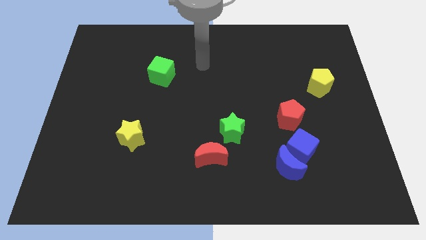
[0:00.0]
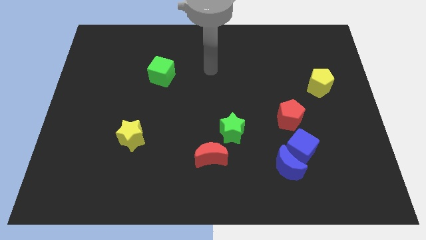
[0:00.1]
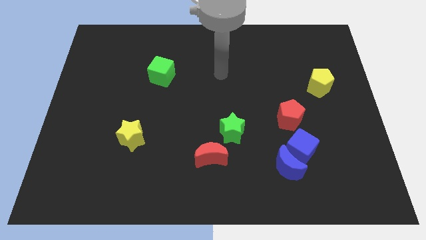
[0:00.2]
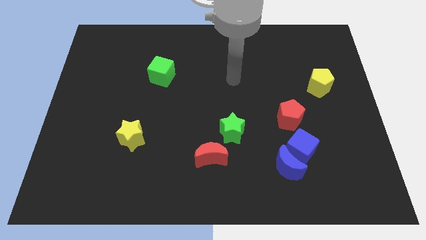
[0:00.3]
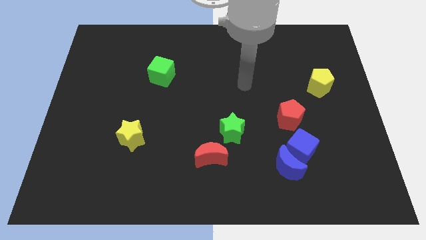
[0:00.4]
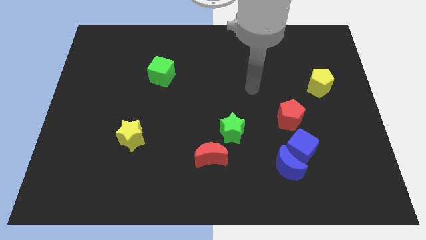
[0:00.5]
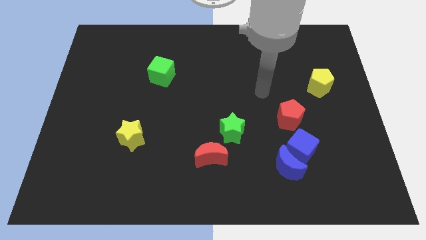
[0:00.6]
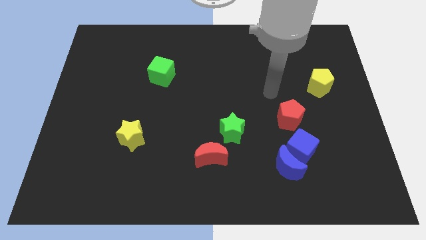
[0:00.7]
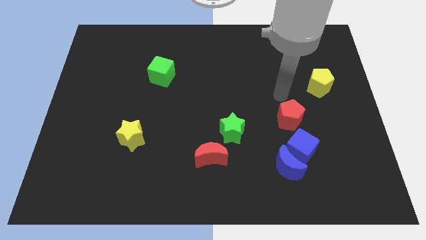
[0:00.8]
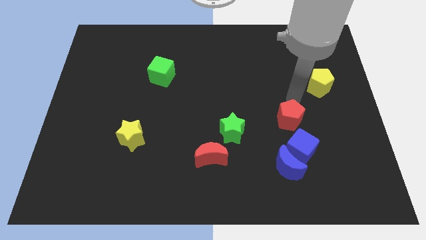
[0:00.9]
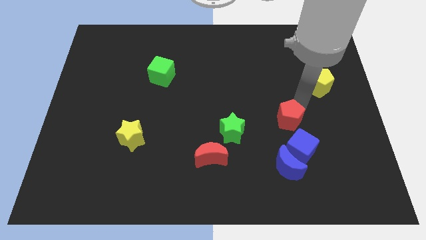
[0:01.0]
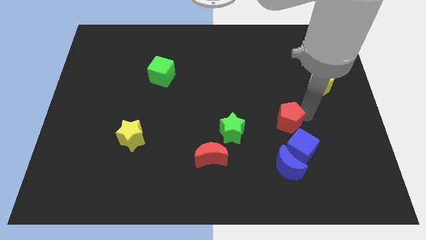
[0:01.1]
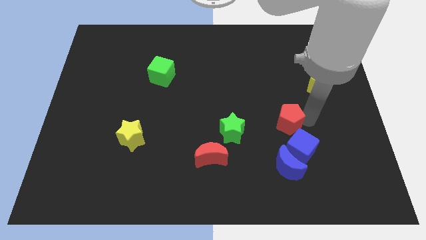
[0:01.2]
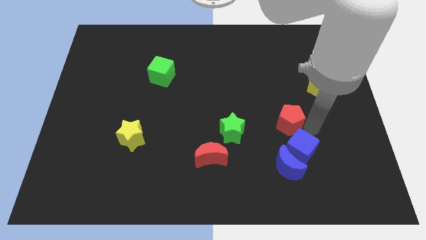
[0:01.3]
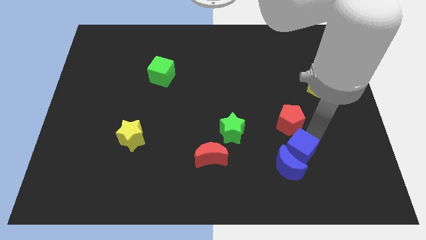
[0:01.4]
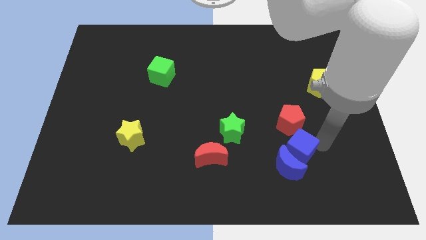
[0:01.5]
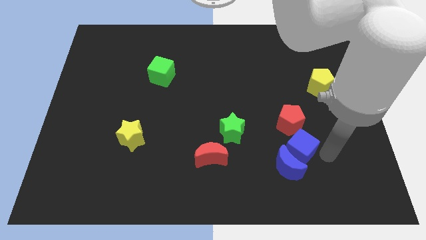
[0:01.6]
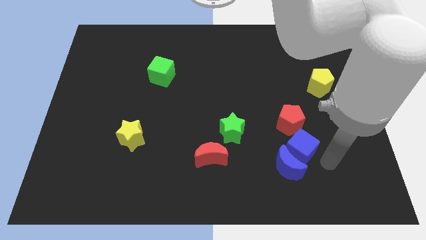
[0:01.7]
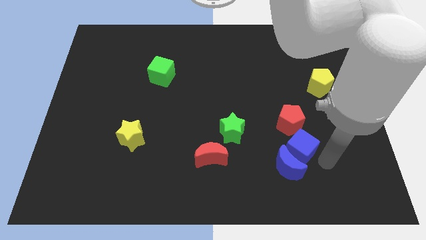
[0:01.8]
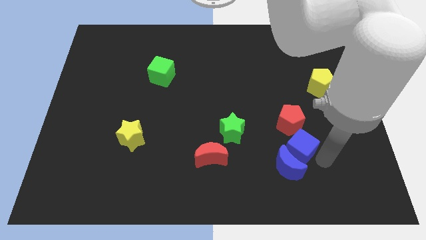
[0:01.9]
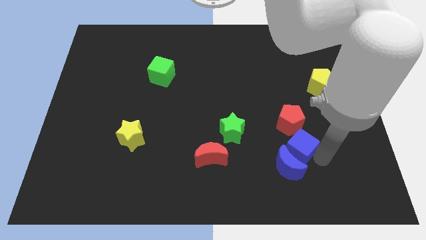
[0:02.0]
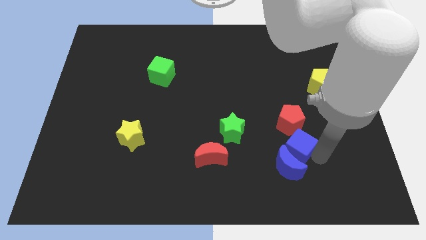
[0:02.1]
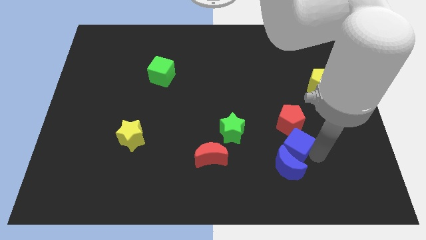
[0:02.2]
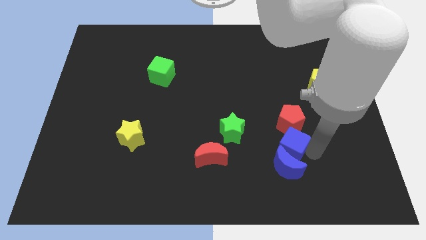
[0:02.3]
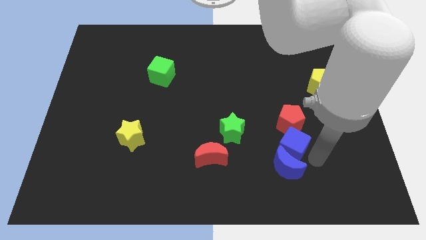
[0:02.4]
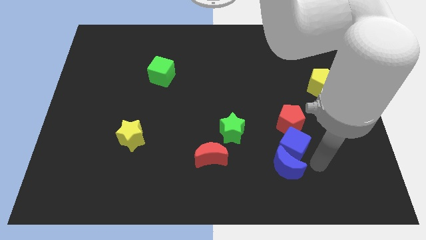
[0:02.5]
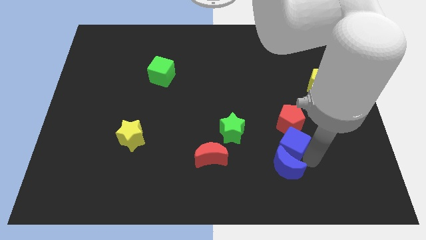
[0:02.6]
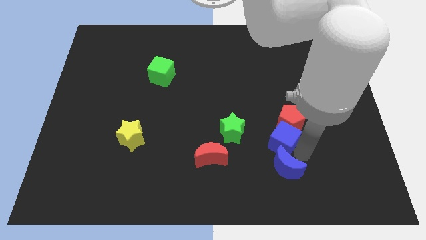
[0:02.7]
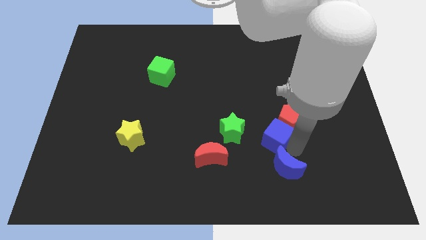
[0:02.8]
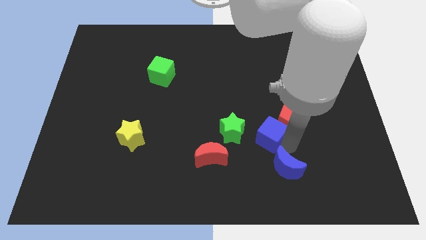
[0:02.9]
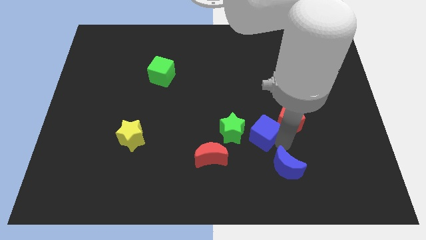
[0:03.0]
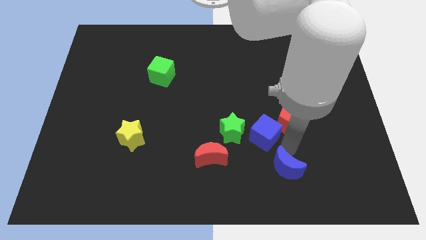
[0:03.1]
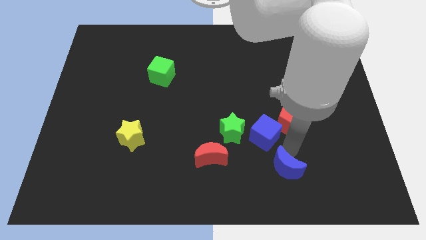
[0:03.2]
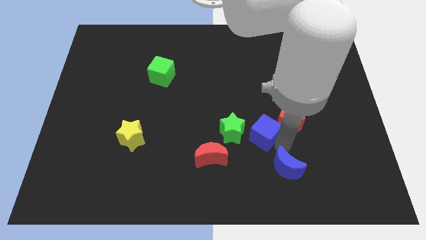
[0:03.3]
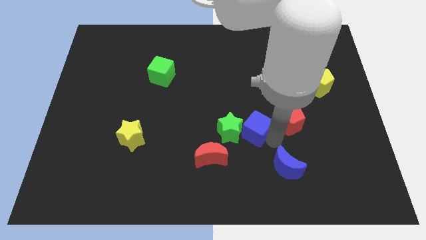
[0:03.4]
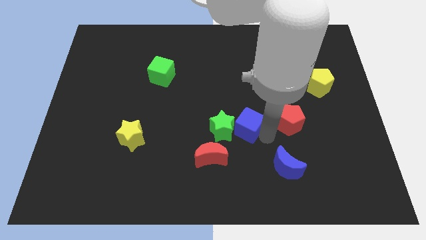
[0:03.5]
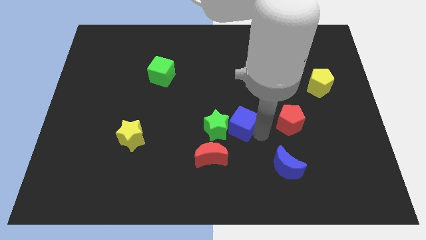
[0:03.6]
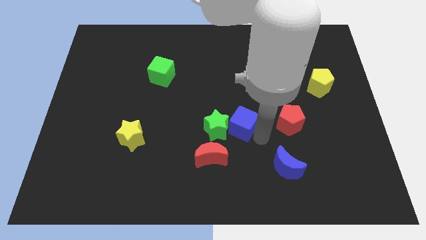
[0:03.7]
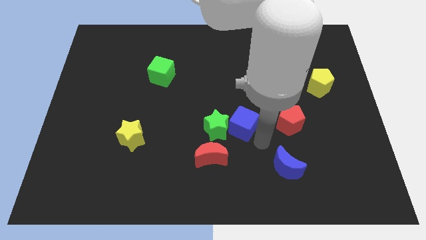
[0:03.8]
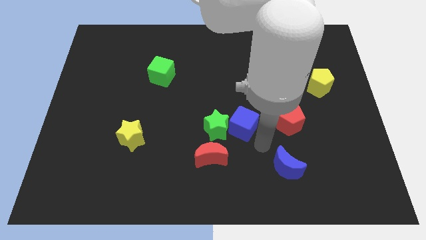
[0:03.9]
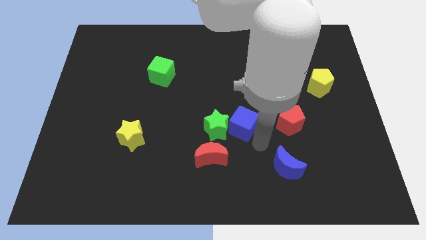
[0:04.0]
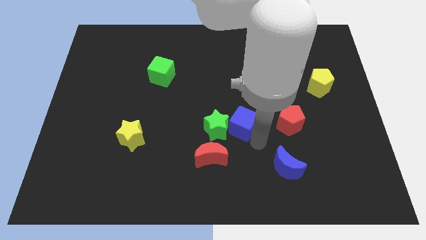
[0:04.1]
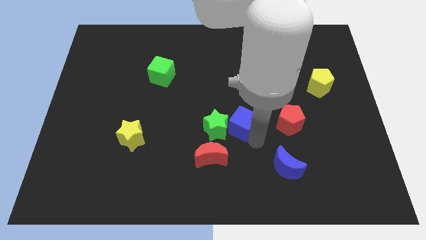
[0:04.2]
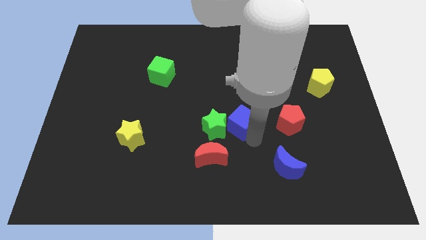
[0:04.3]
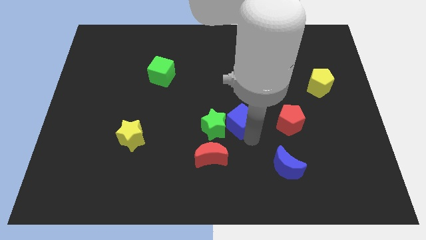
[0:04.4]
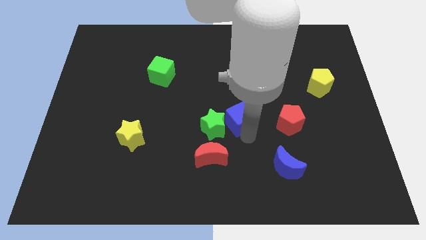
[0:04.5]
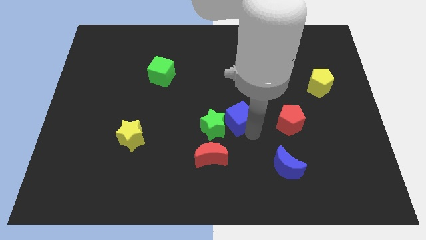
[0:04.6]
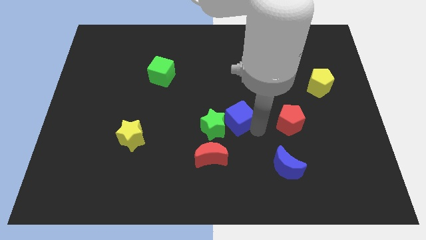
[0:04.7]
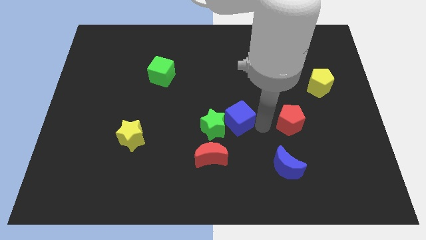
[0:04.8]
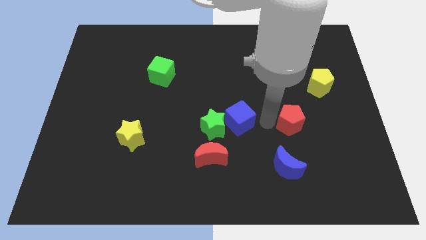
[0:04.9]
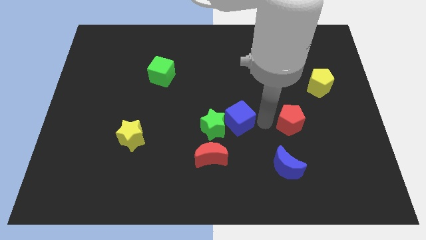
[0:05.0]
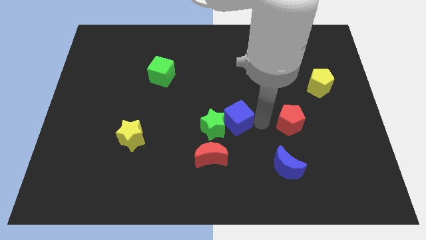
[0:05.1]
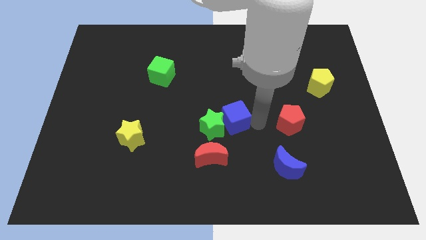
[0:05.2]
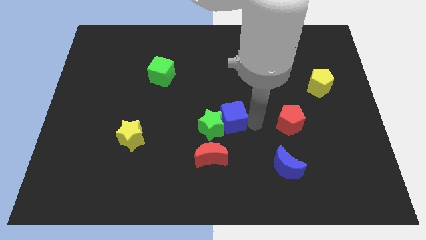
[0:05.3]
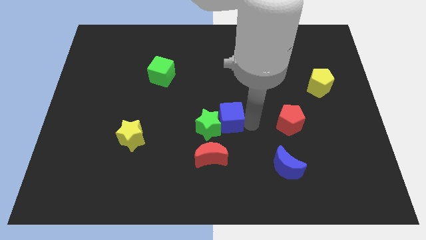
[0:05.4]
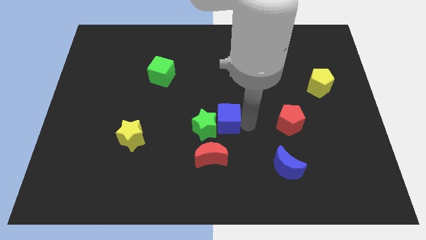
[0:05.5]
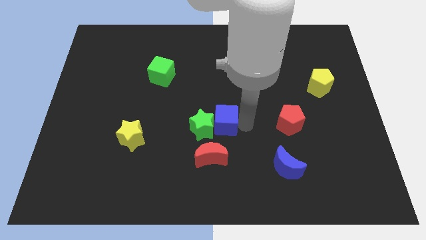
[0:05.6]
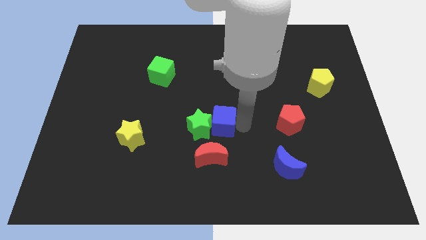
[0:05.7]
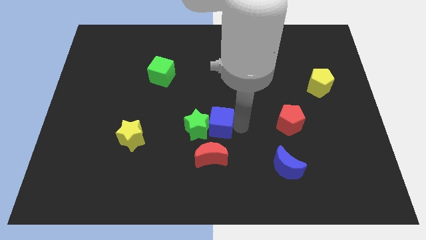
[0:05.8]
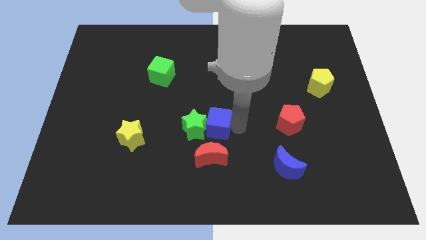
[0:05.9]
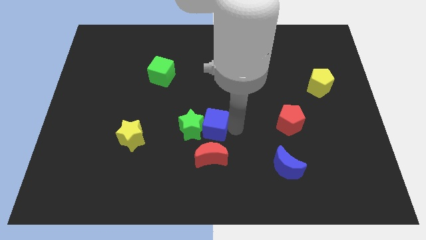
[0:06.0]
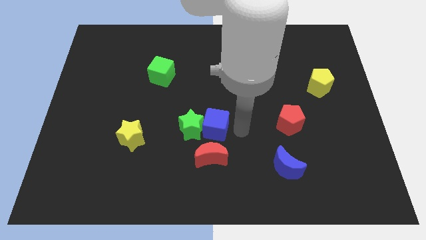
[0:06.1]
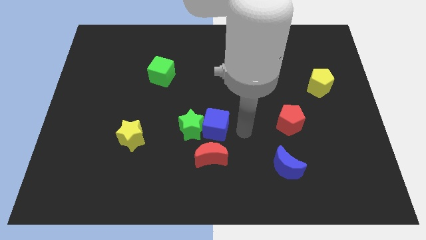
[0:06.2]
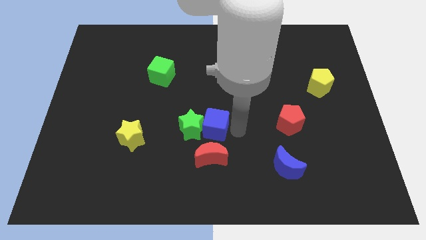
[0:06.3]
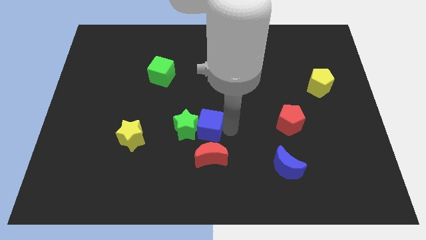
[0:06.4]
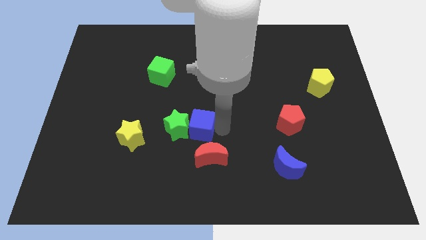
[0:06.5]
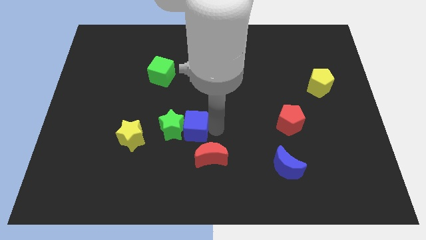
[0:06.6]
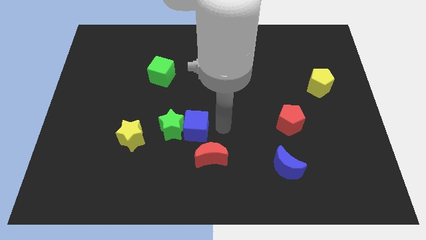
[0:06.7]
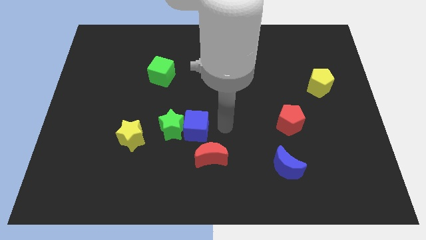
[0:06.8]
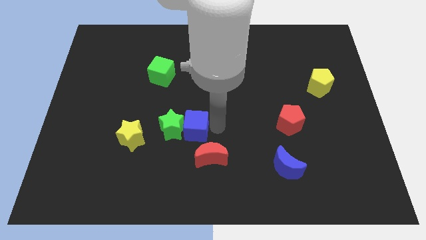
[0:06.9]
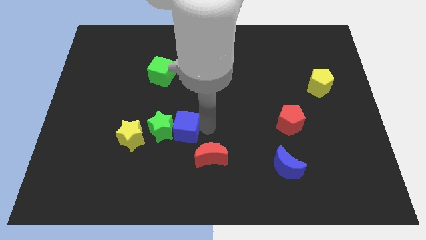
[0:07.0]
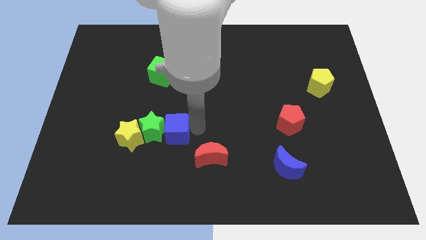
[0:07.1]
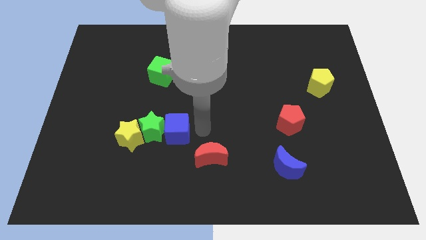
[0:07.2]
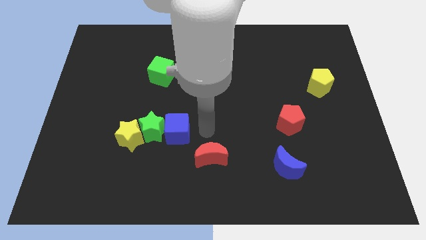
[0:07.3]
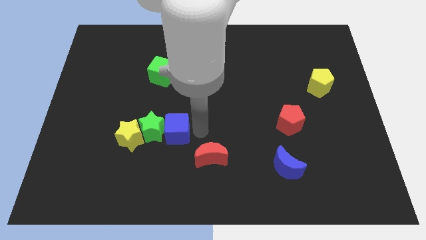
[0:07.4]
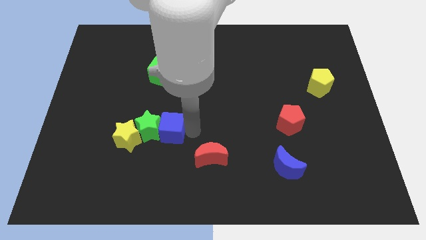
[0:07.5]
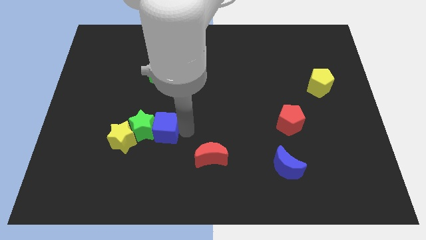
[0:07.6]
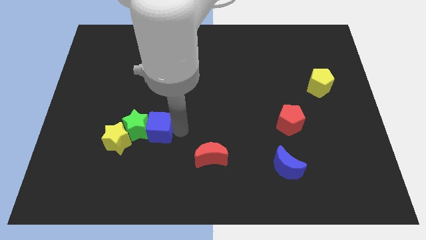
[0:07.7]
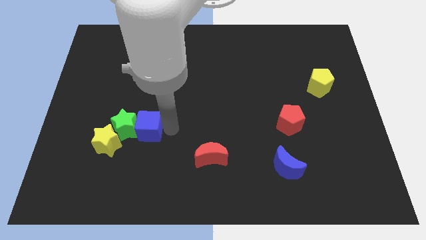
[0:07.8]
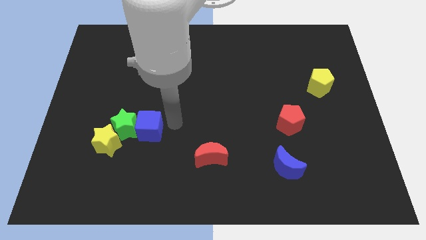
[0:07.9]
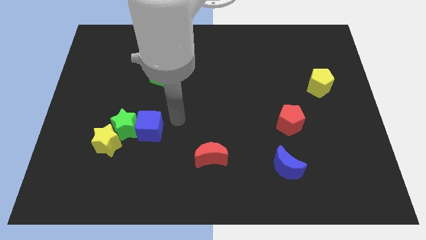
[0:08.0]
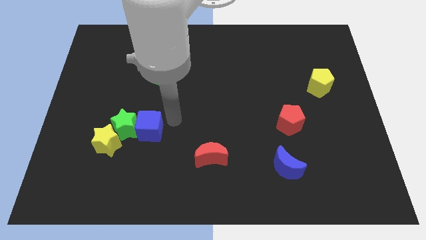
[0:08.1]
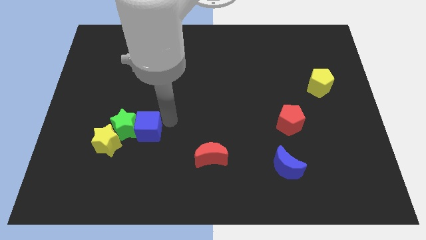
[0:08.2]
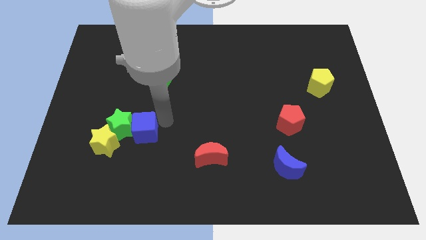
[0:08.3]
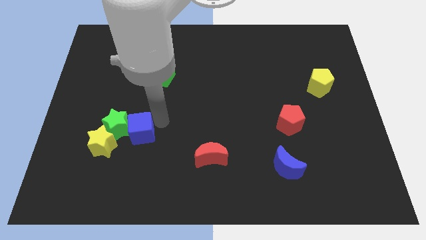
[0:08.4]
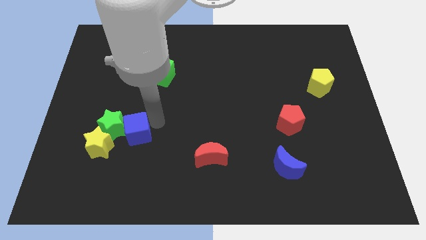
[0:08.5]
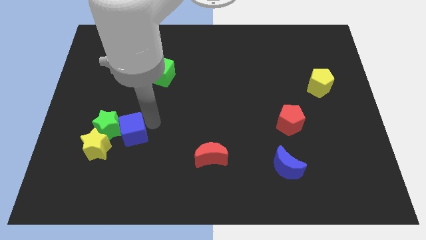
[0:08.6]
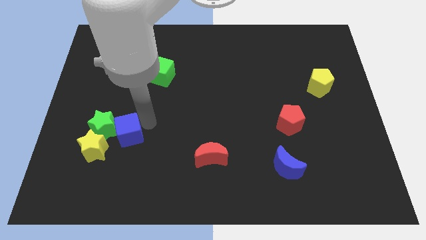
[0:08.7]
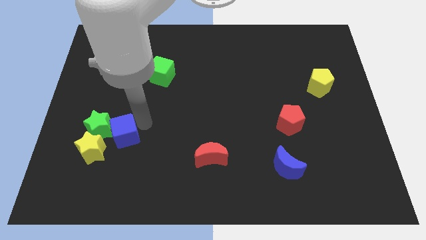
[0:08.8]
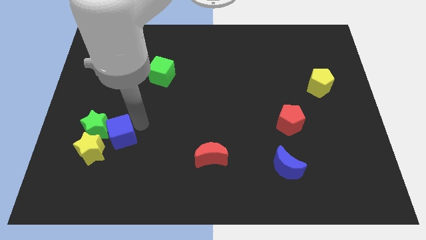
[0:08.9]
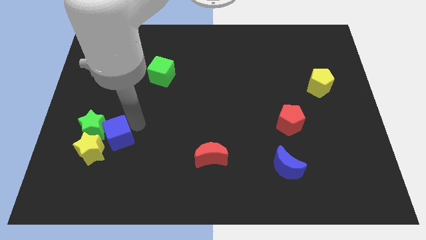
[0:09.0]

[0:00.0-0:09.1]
push the blue cube to the yellow star
